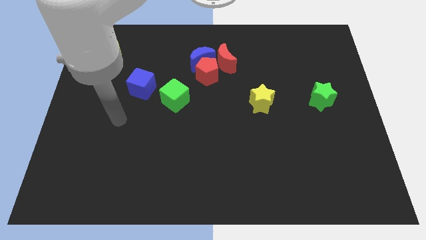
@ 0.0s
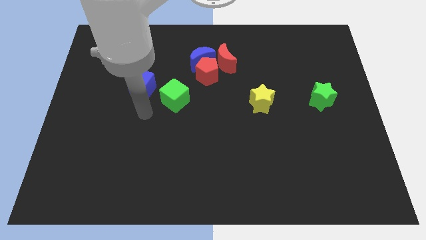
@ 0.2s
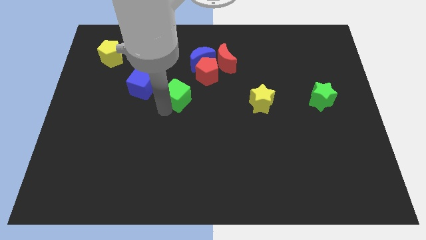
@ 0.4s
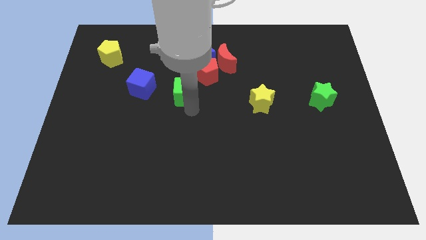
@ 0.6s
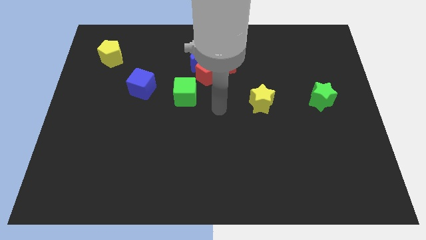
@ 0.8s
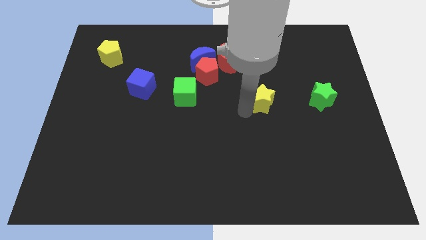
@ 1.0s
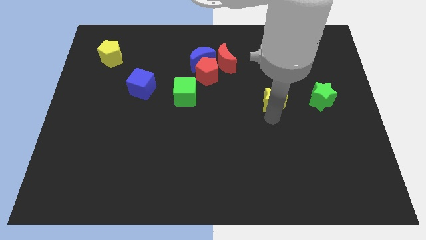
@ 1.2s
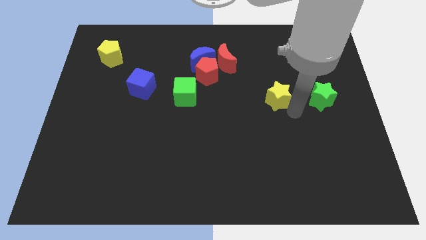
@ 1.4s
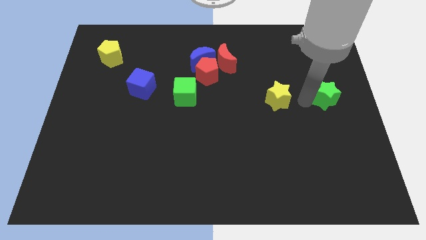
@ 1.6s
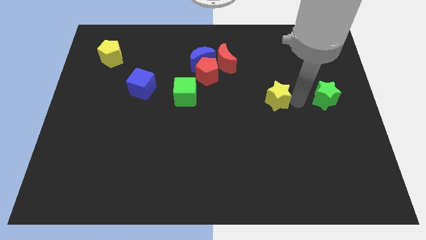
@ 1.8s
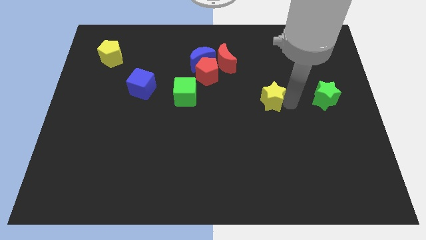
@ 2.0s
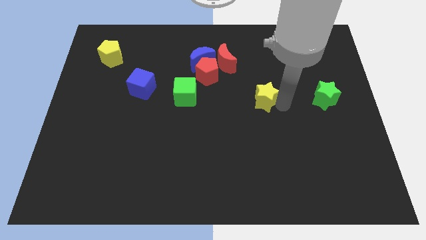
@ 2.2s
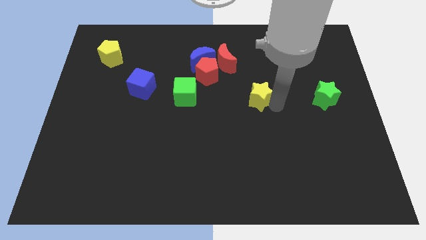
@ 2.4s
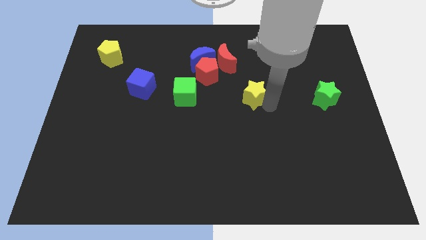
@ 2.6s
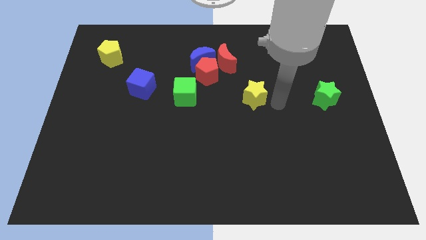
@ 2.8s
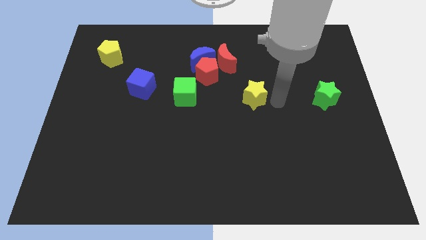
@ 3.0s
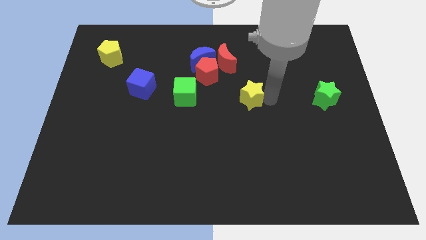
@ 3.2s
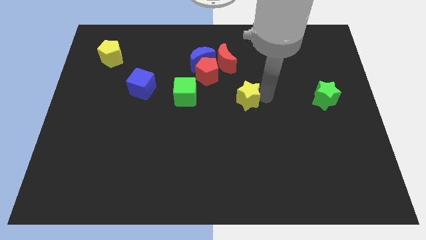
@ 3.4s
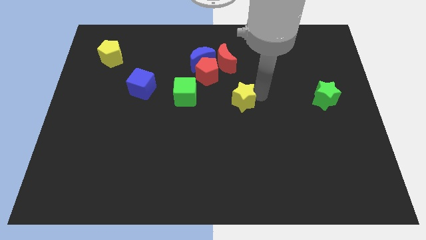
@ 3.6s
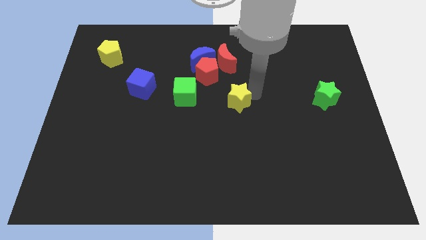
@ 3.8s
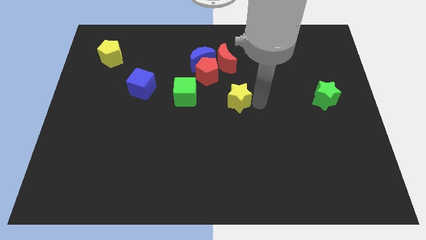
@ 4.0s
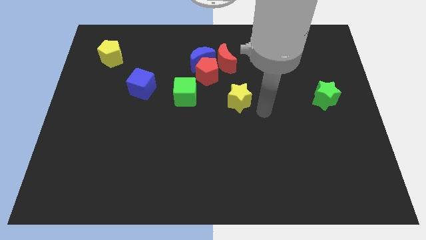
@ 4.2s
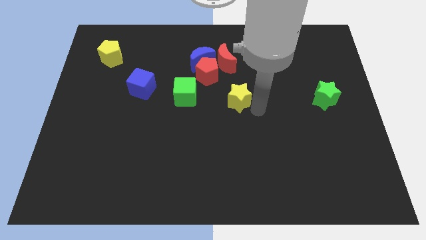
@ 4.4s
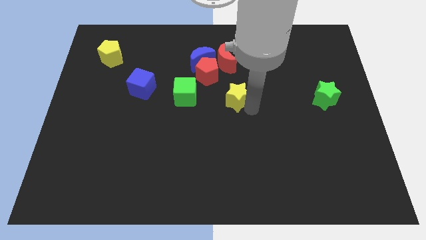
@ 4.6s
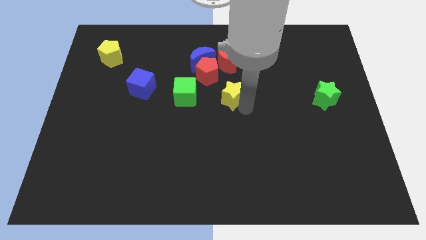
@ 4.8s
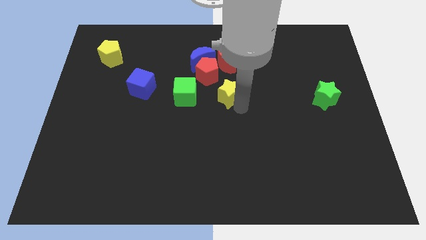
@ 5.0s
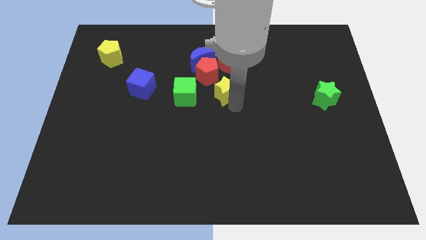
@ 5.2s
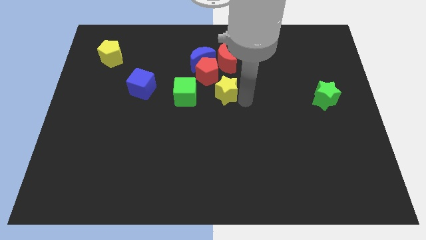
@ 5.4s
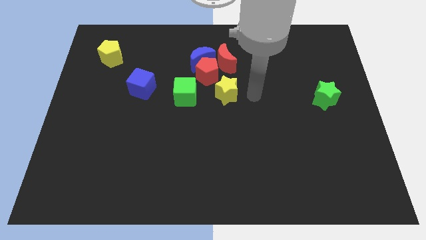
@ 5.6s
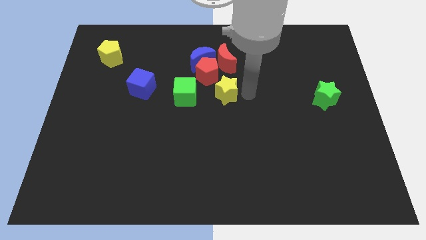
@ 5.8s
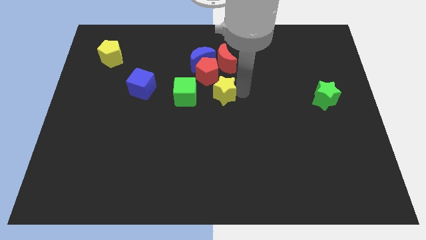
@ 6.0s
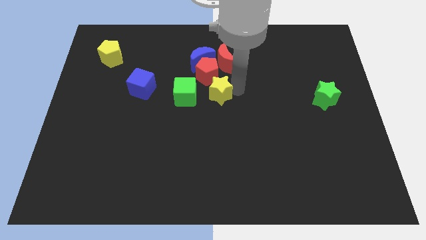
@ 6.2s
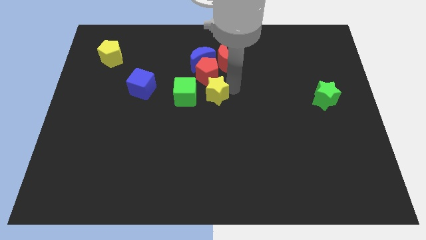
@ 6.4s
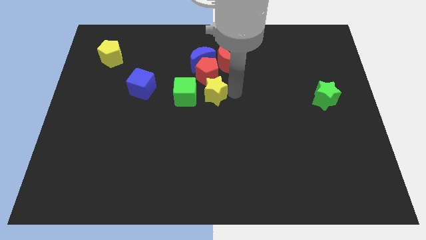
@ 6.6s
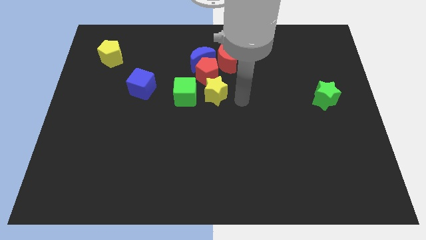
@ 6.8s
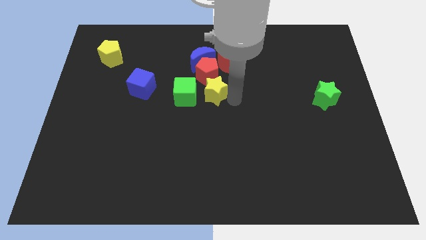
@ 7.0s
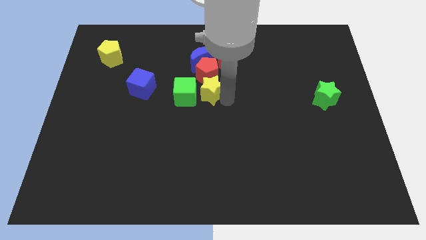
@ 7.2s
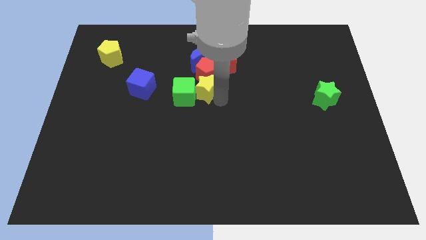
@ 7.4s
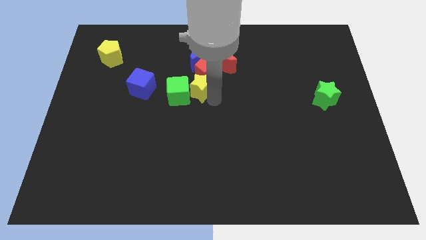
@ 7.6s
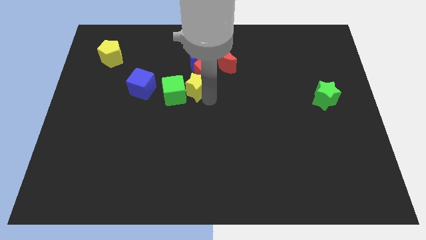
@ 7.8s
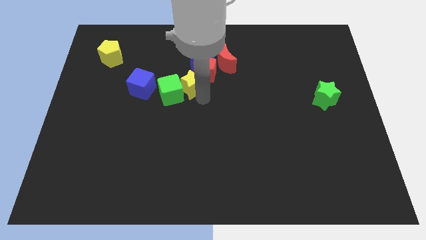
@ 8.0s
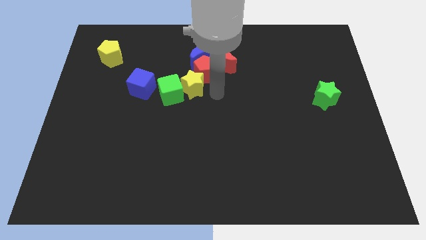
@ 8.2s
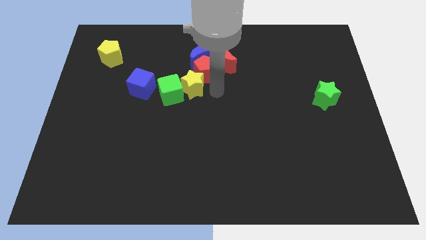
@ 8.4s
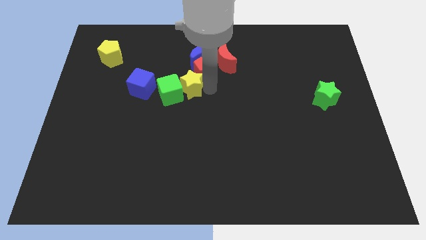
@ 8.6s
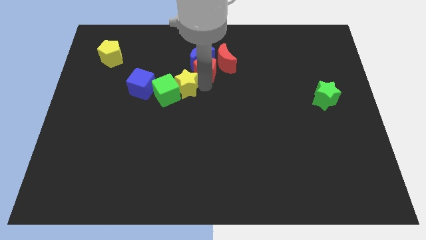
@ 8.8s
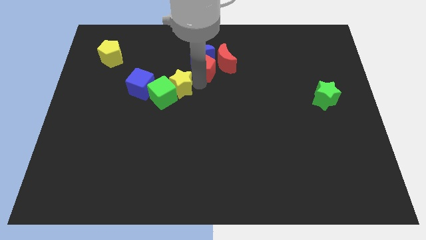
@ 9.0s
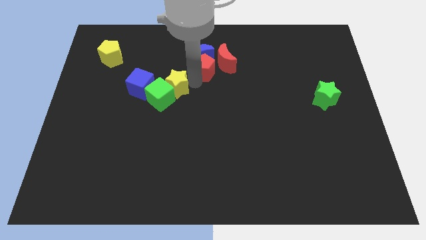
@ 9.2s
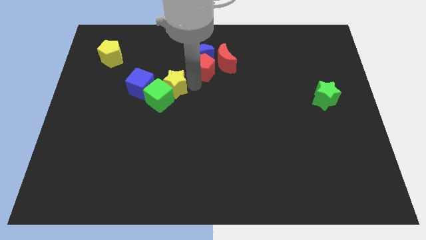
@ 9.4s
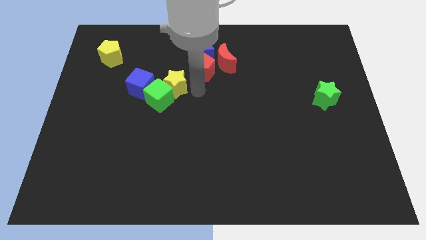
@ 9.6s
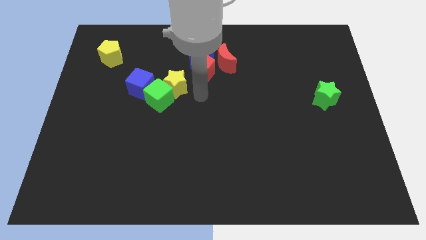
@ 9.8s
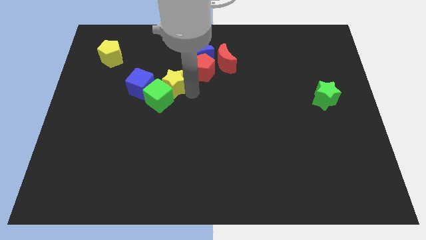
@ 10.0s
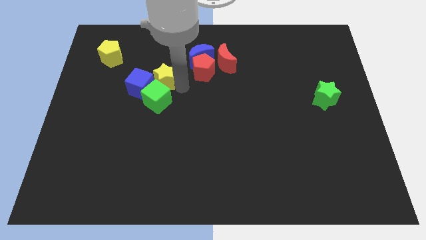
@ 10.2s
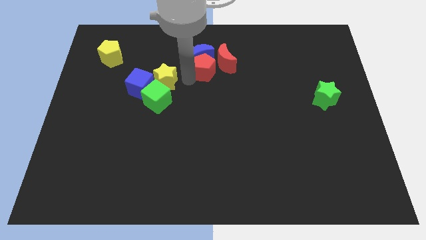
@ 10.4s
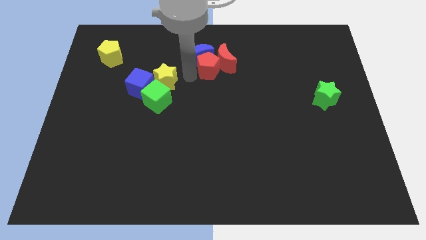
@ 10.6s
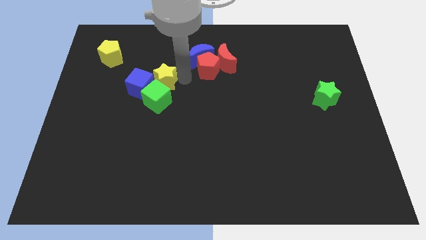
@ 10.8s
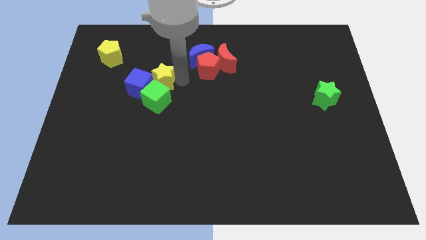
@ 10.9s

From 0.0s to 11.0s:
move the yellow star to the blue cube

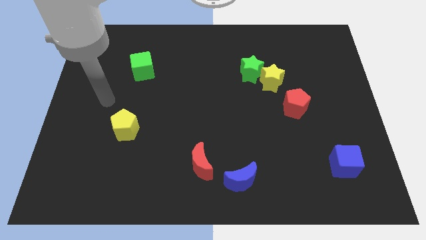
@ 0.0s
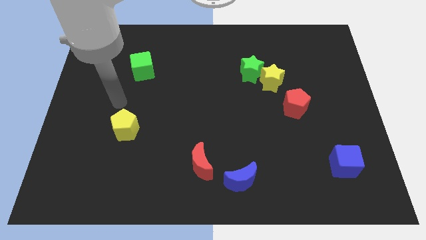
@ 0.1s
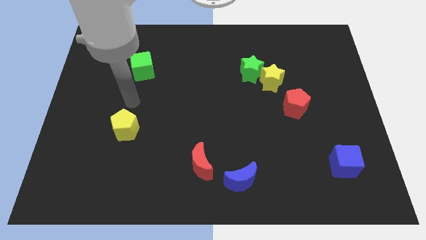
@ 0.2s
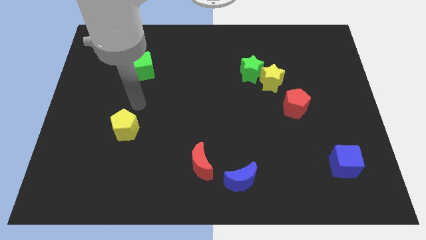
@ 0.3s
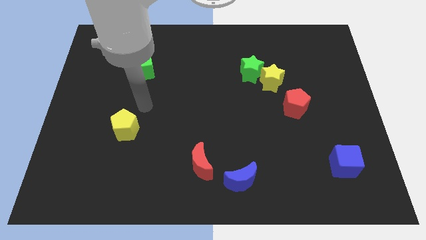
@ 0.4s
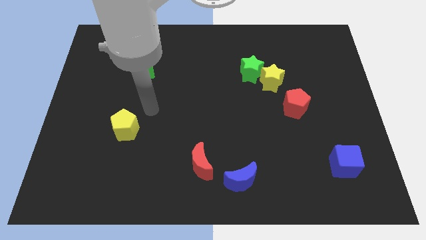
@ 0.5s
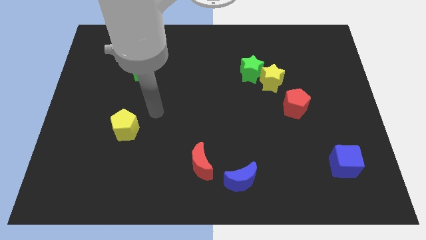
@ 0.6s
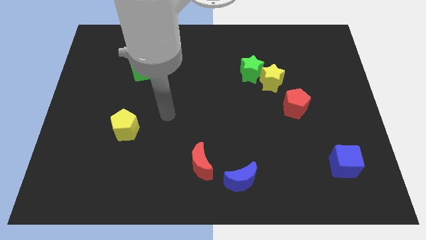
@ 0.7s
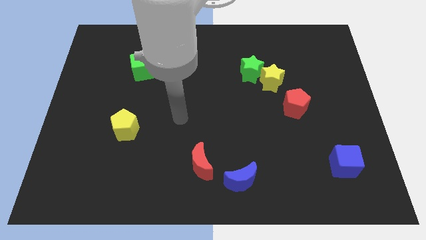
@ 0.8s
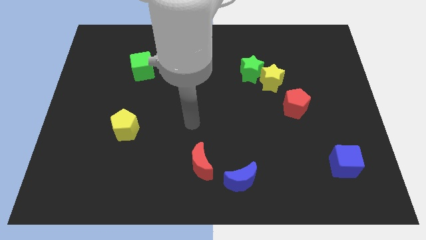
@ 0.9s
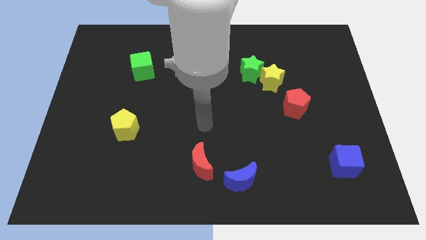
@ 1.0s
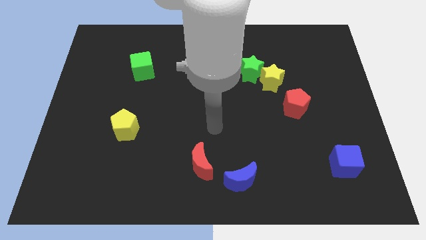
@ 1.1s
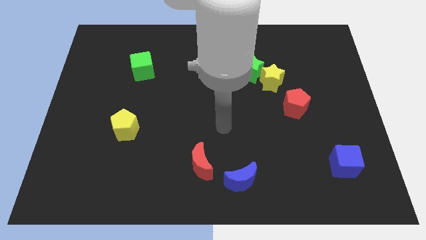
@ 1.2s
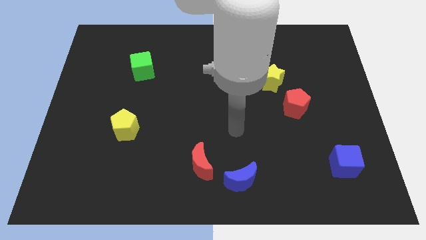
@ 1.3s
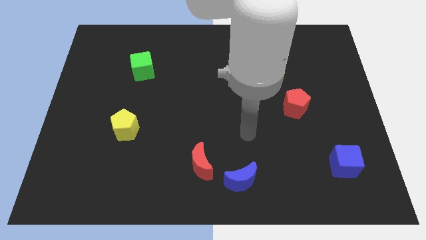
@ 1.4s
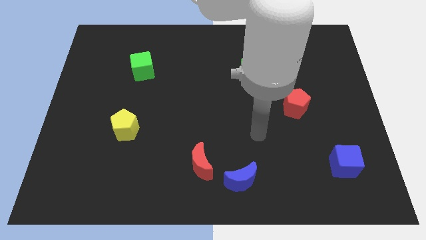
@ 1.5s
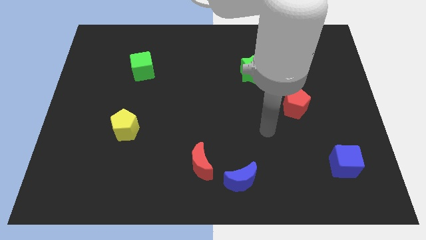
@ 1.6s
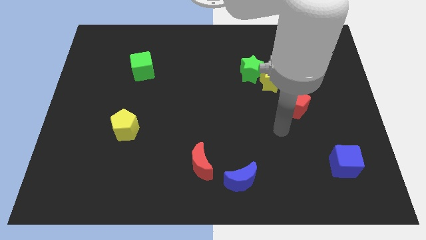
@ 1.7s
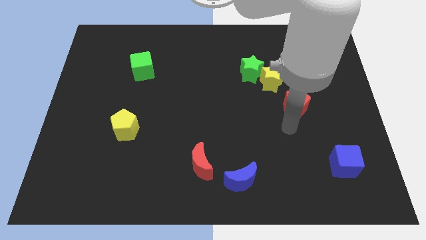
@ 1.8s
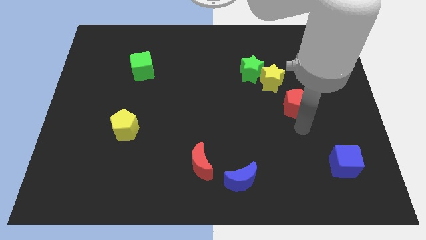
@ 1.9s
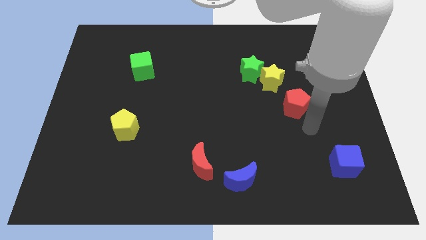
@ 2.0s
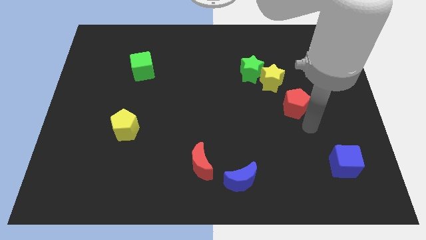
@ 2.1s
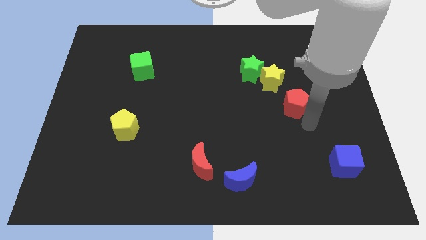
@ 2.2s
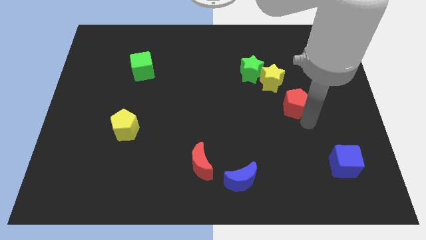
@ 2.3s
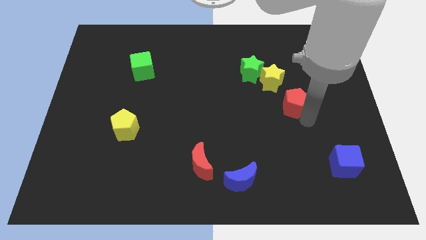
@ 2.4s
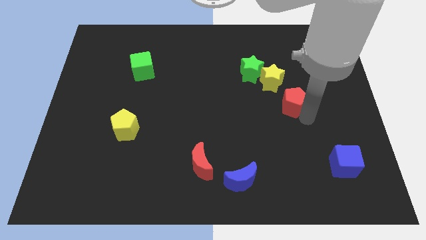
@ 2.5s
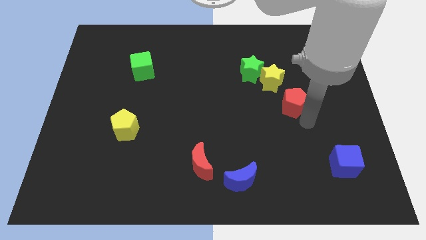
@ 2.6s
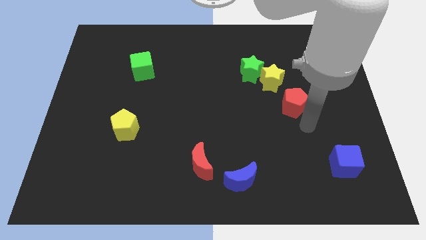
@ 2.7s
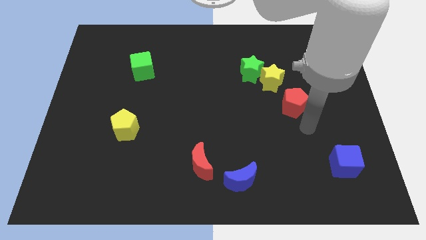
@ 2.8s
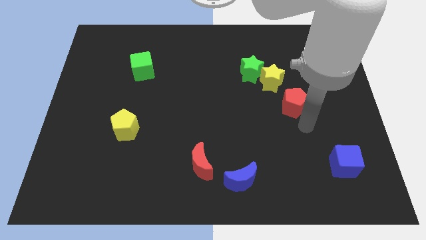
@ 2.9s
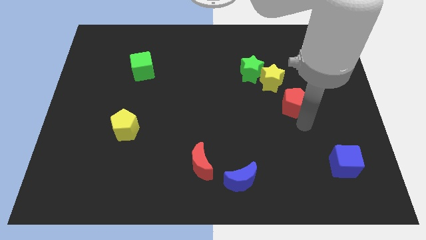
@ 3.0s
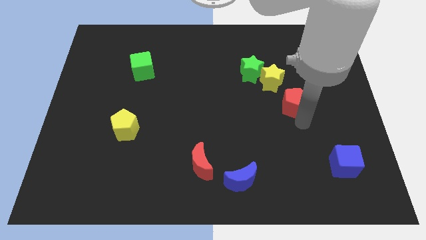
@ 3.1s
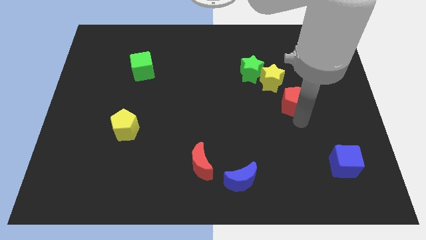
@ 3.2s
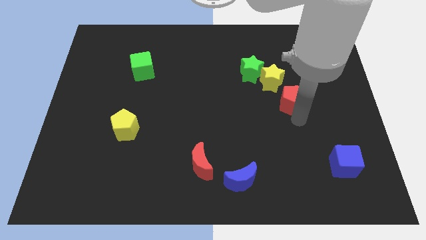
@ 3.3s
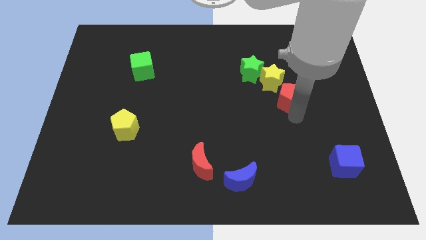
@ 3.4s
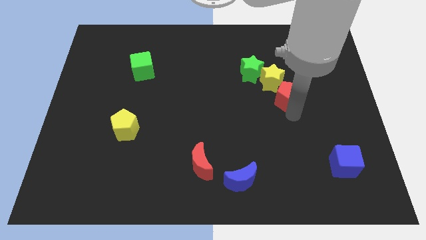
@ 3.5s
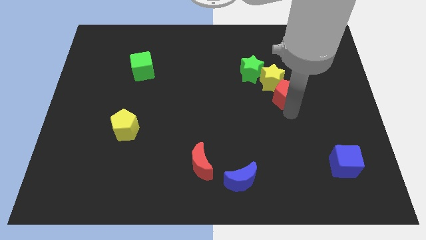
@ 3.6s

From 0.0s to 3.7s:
push the red pentagon to the yellow star
